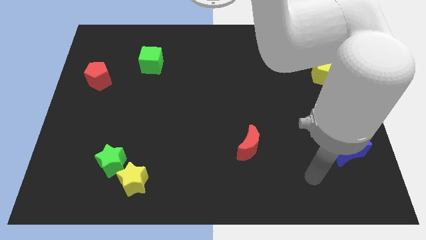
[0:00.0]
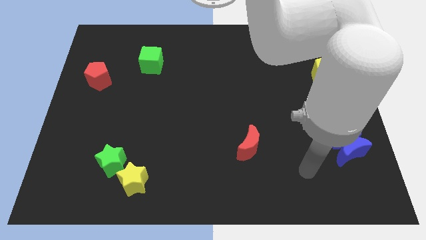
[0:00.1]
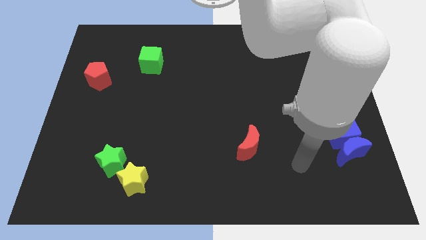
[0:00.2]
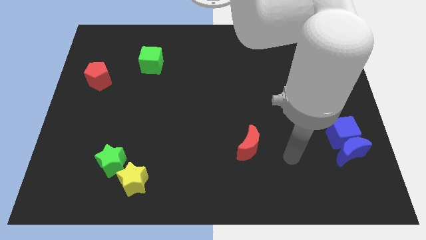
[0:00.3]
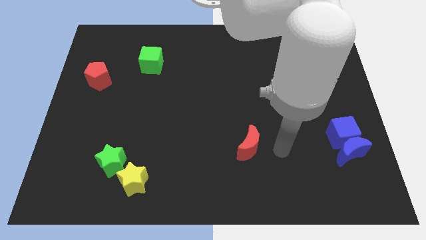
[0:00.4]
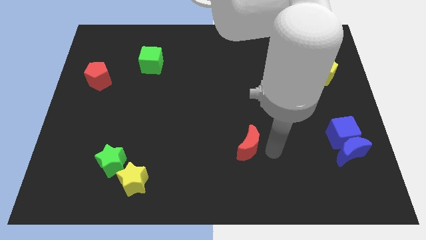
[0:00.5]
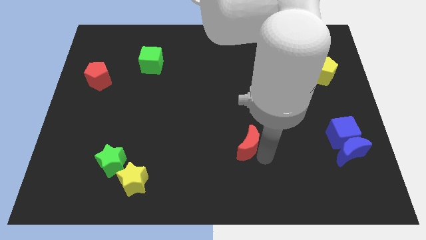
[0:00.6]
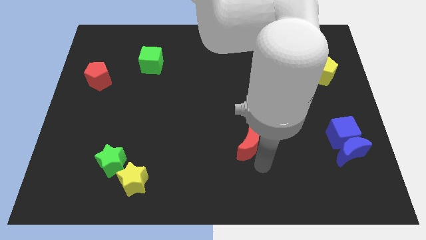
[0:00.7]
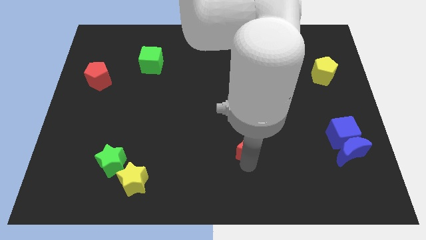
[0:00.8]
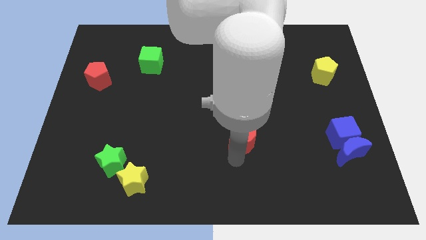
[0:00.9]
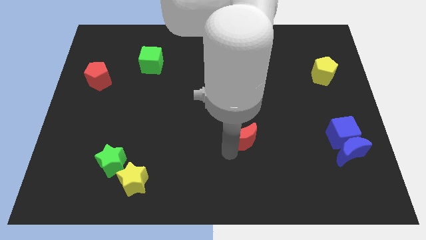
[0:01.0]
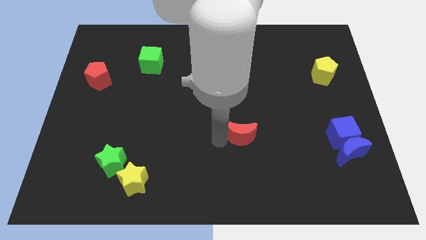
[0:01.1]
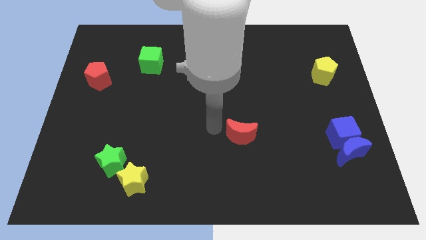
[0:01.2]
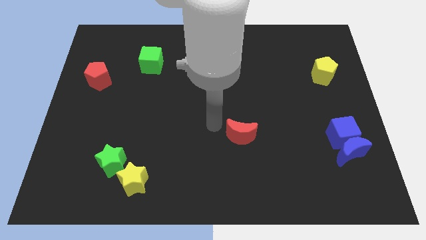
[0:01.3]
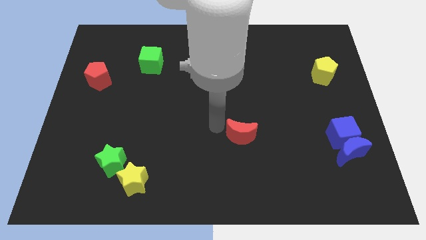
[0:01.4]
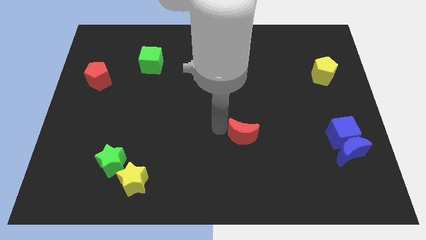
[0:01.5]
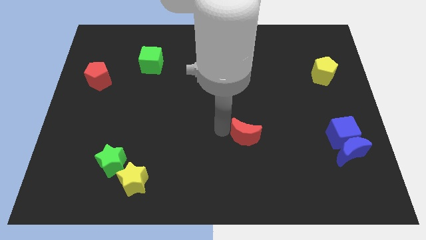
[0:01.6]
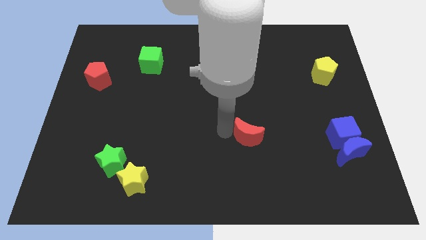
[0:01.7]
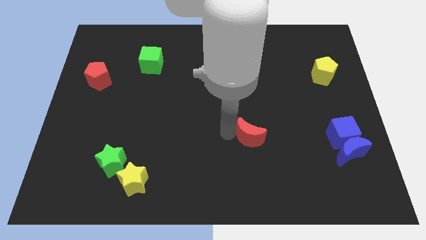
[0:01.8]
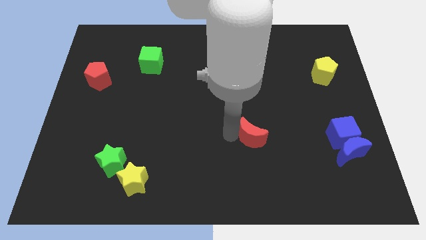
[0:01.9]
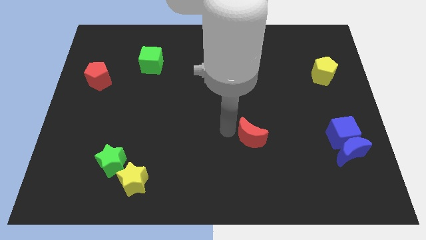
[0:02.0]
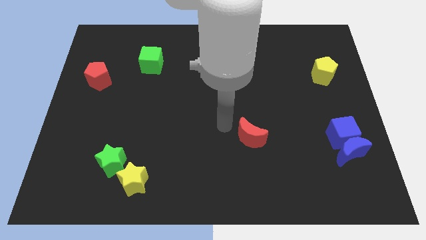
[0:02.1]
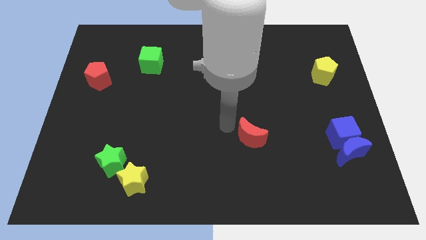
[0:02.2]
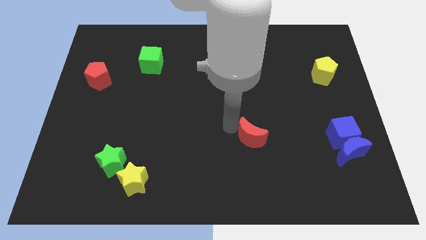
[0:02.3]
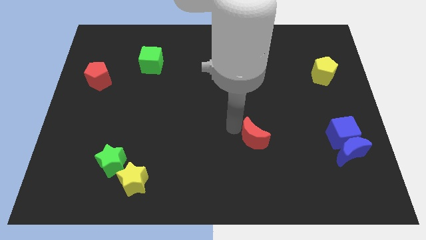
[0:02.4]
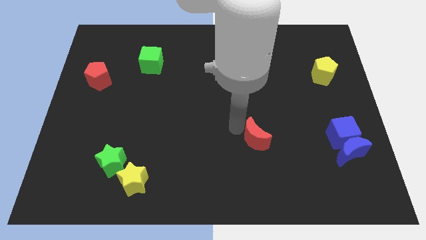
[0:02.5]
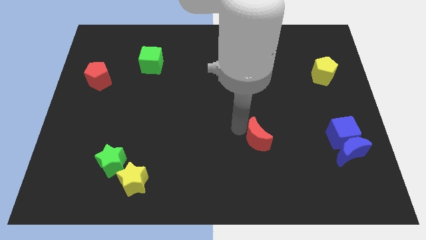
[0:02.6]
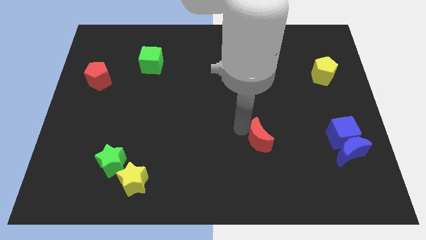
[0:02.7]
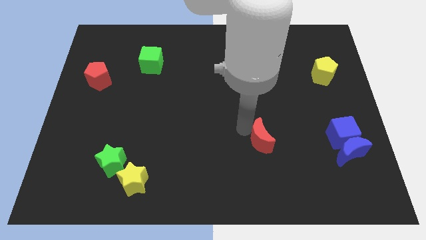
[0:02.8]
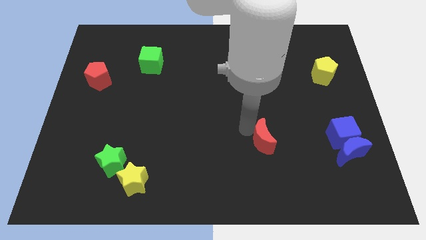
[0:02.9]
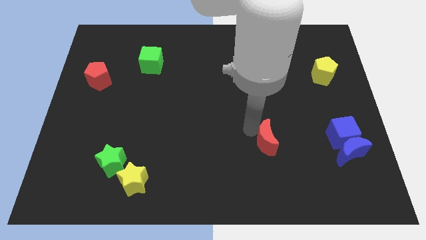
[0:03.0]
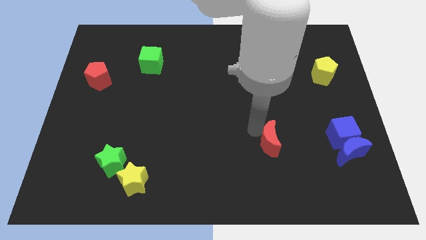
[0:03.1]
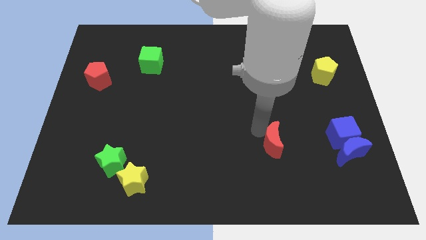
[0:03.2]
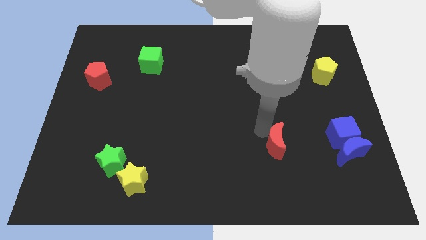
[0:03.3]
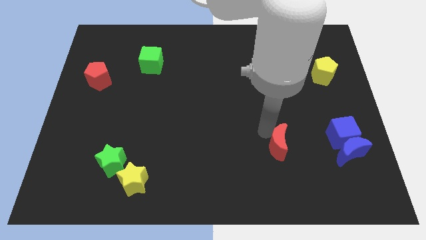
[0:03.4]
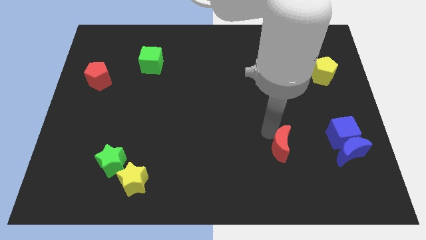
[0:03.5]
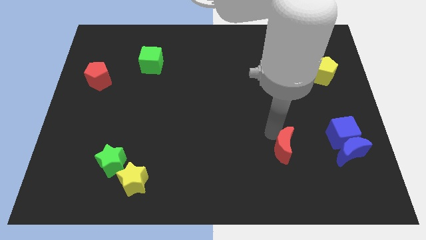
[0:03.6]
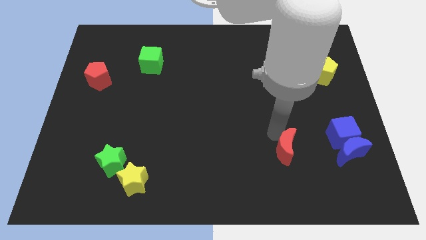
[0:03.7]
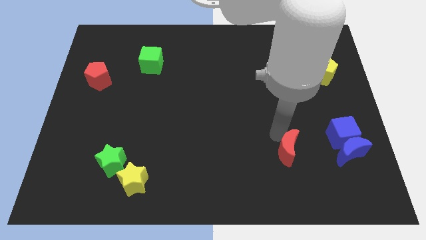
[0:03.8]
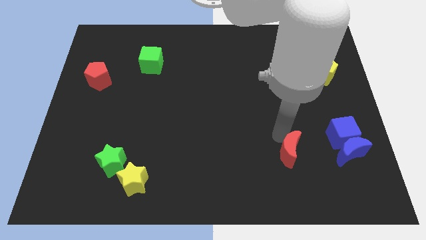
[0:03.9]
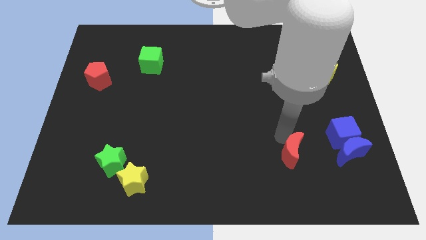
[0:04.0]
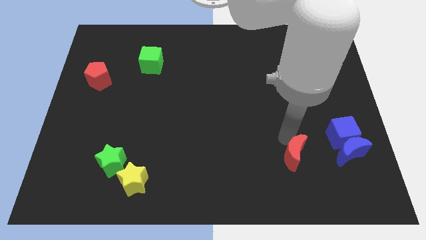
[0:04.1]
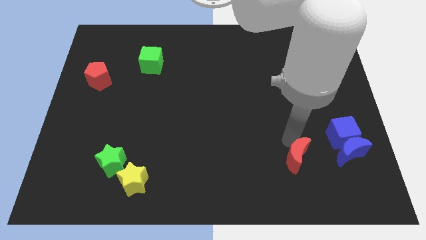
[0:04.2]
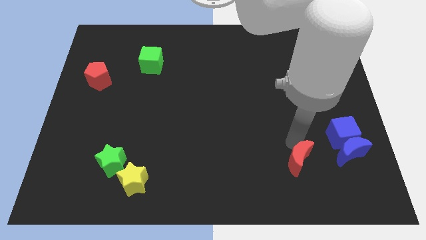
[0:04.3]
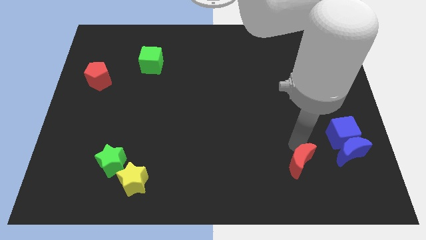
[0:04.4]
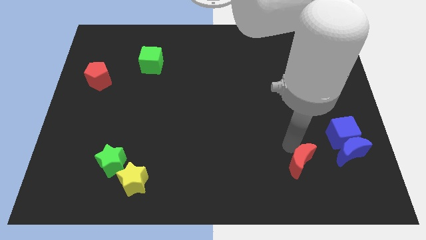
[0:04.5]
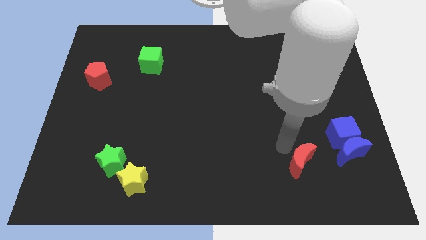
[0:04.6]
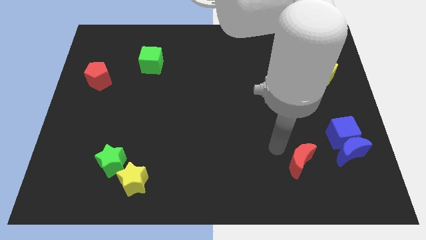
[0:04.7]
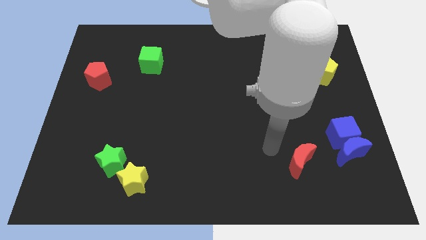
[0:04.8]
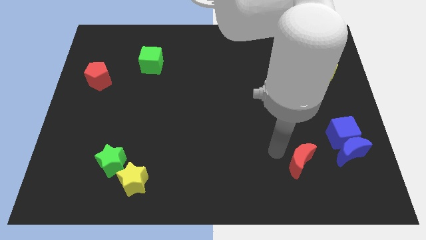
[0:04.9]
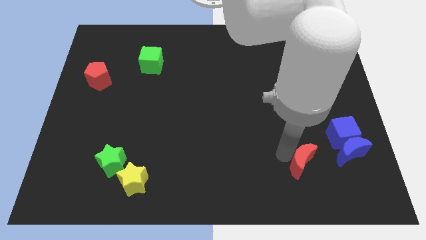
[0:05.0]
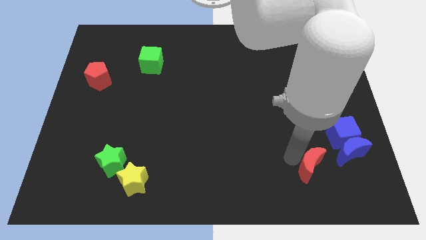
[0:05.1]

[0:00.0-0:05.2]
move the red moon to the bottom left of the blue moon

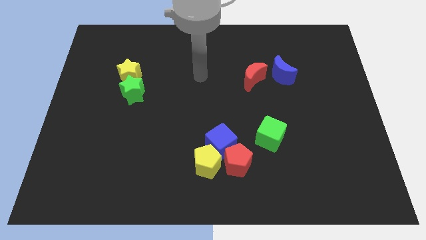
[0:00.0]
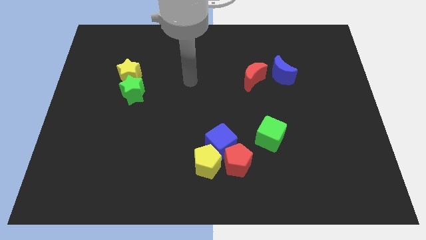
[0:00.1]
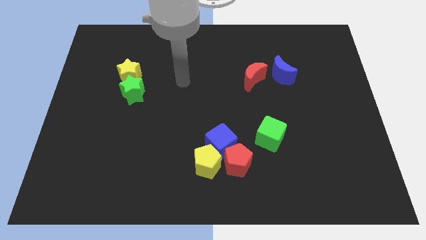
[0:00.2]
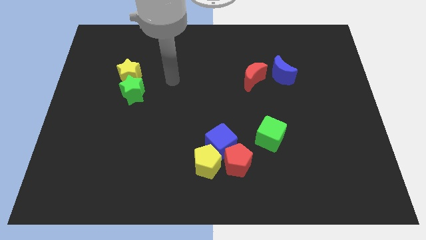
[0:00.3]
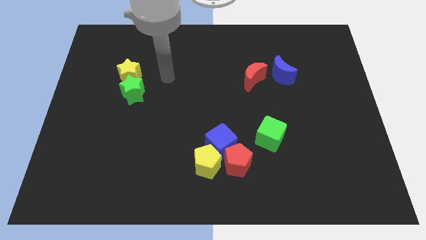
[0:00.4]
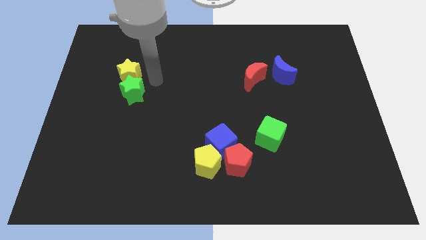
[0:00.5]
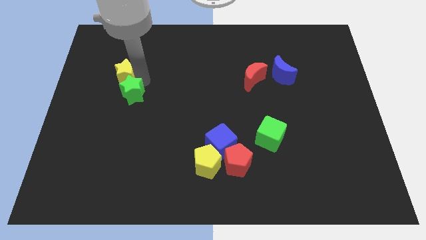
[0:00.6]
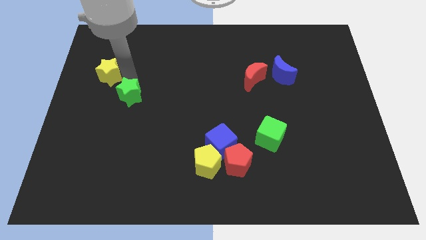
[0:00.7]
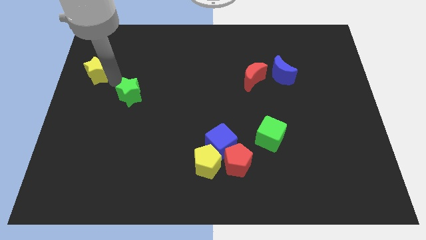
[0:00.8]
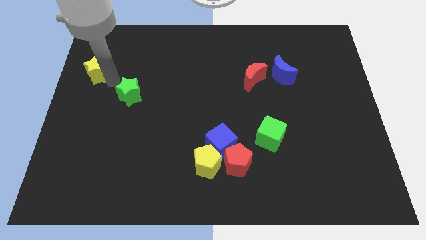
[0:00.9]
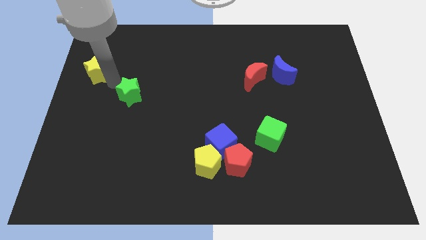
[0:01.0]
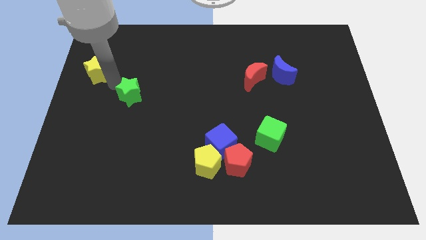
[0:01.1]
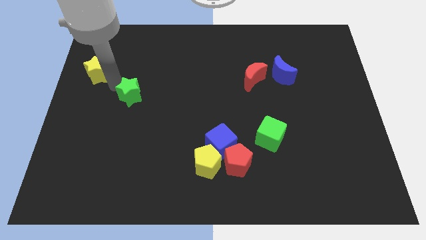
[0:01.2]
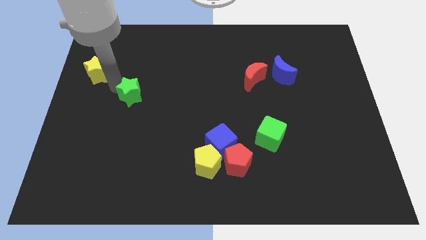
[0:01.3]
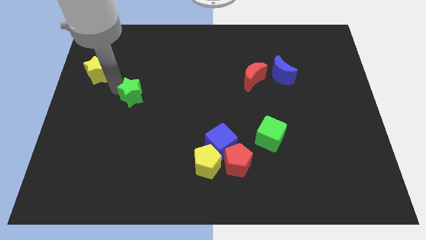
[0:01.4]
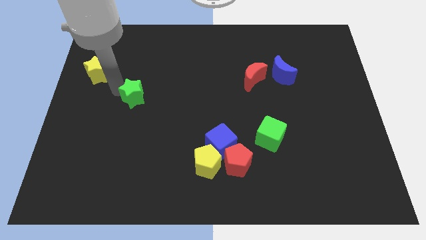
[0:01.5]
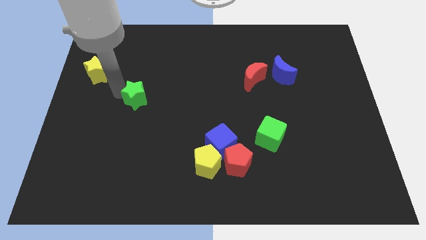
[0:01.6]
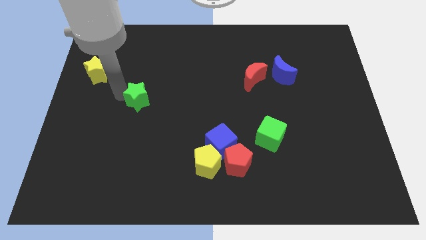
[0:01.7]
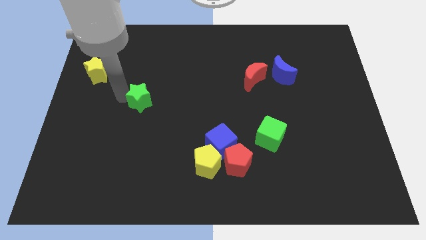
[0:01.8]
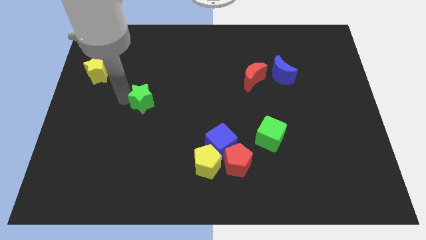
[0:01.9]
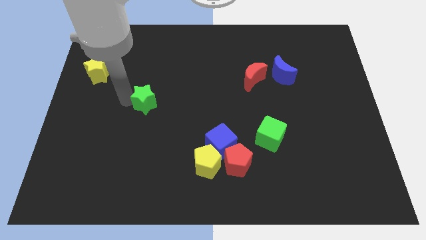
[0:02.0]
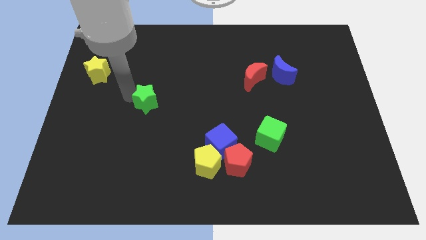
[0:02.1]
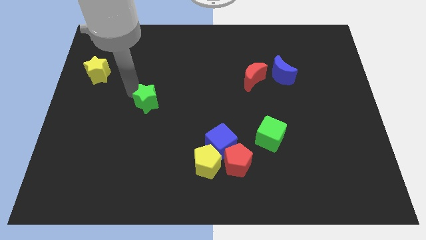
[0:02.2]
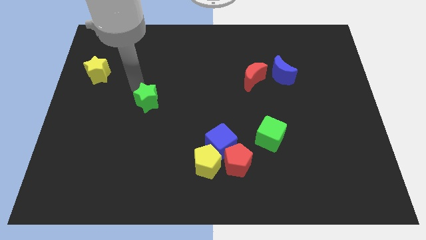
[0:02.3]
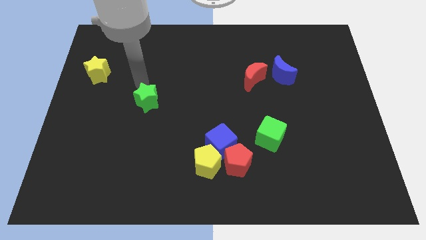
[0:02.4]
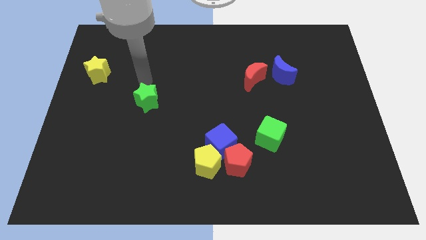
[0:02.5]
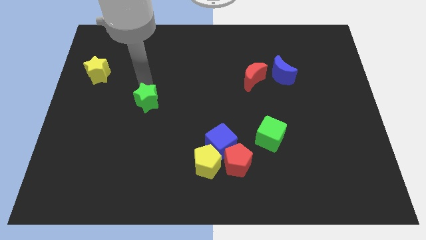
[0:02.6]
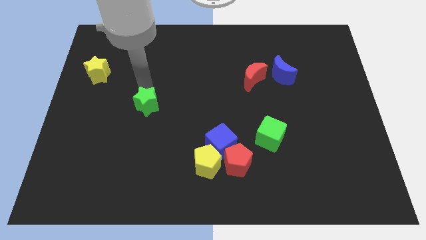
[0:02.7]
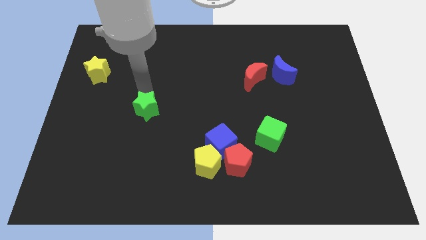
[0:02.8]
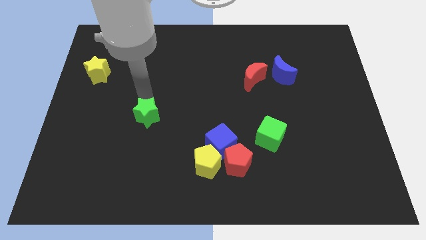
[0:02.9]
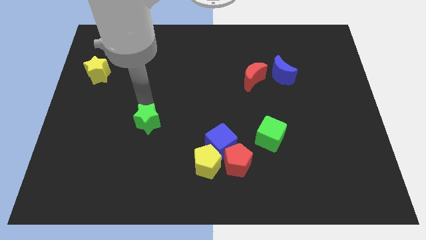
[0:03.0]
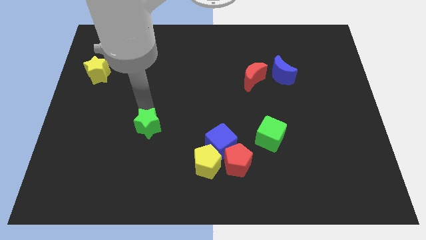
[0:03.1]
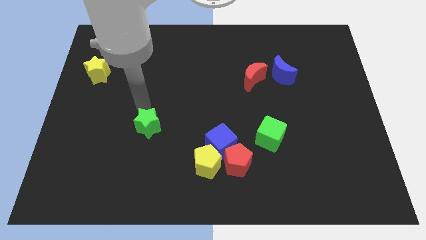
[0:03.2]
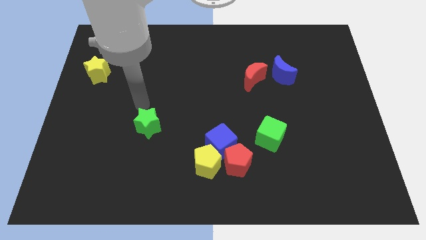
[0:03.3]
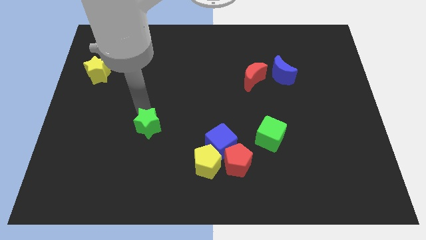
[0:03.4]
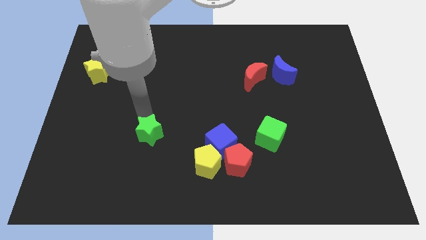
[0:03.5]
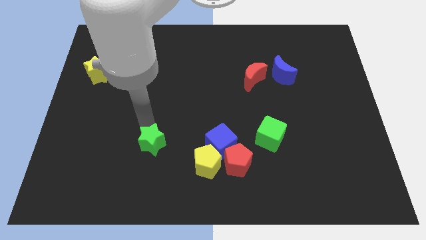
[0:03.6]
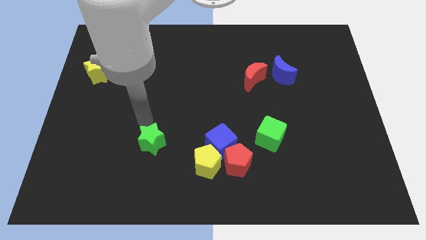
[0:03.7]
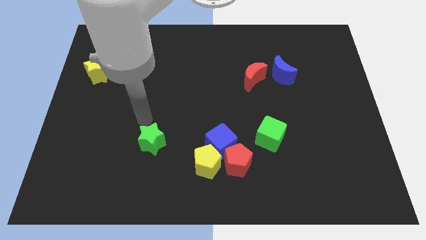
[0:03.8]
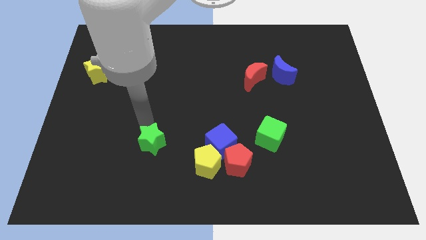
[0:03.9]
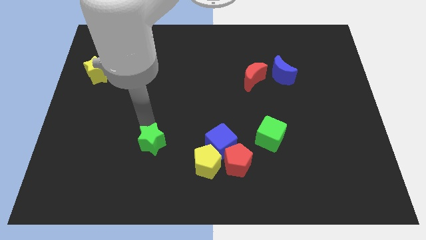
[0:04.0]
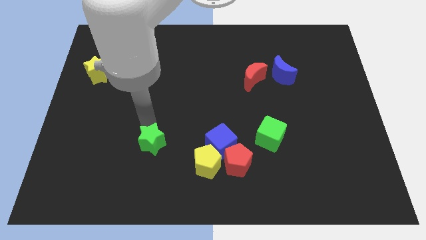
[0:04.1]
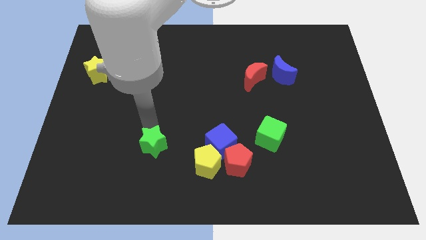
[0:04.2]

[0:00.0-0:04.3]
move the green star left of the yellow pentagon
